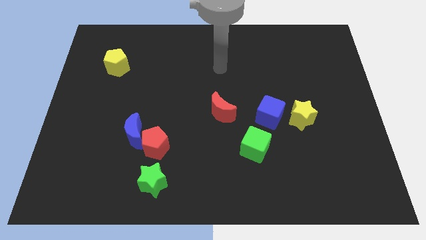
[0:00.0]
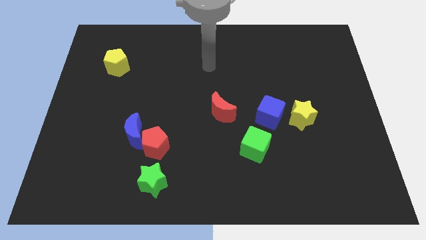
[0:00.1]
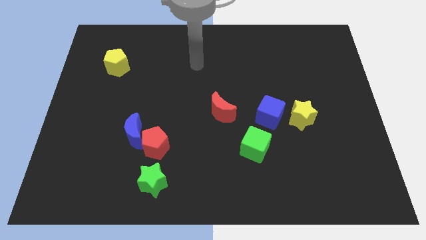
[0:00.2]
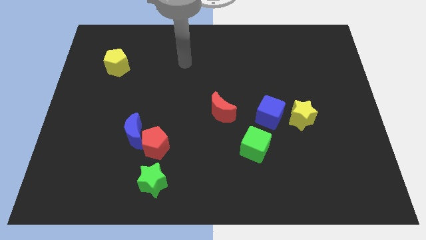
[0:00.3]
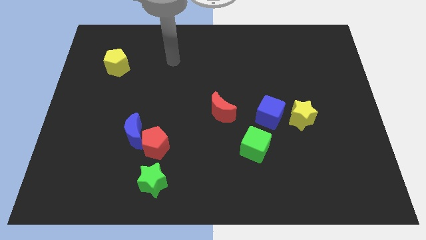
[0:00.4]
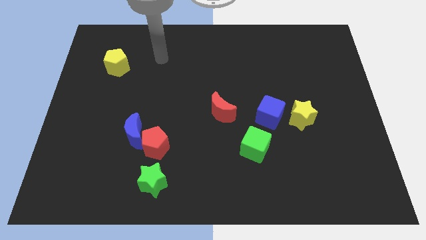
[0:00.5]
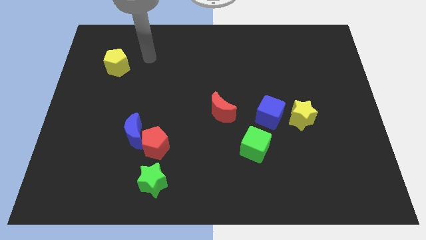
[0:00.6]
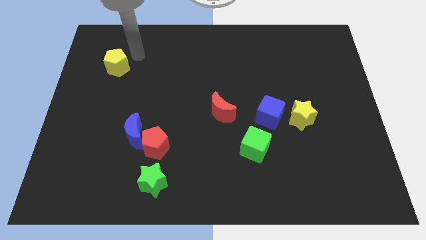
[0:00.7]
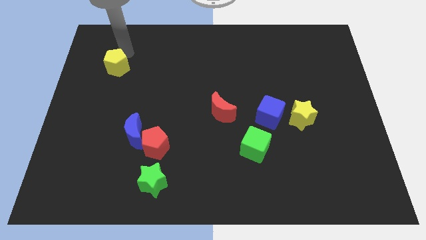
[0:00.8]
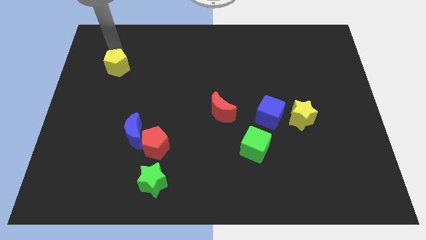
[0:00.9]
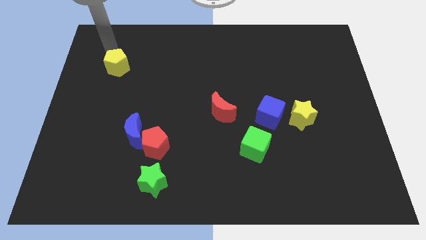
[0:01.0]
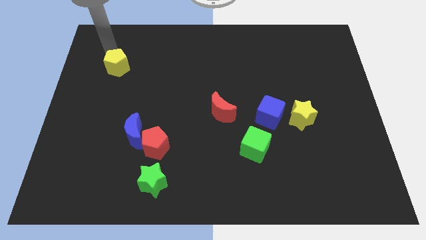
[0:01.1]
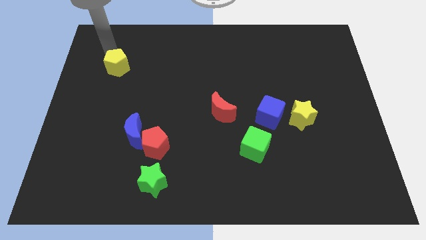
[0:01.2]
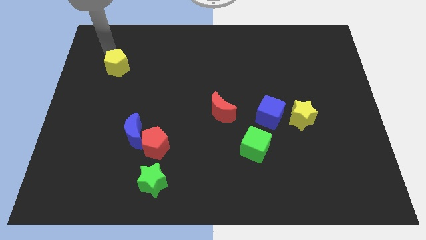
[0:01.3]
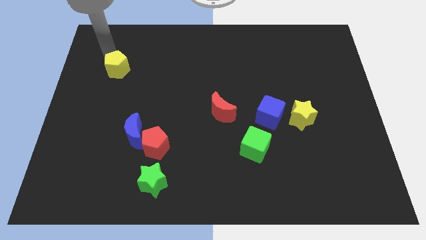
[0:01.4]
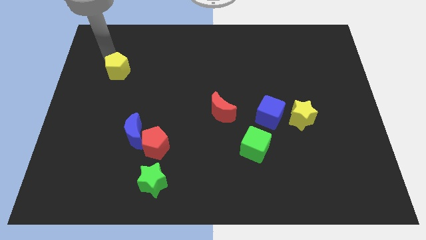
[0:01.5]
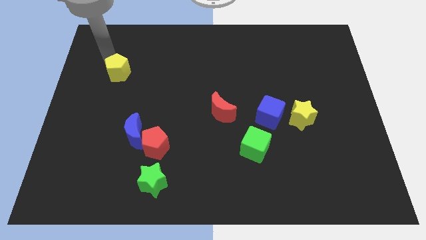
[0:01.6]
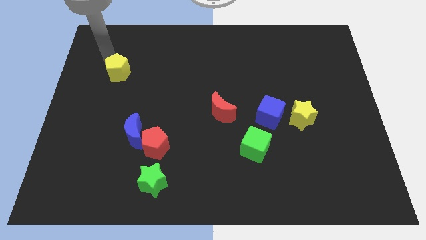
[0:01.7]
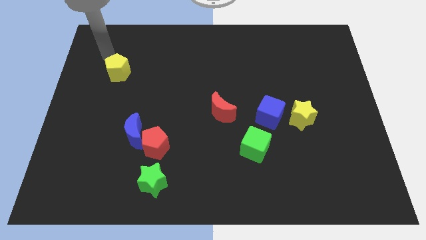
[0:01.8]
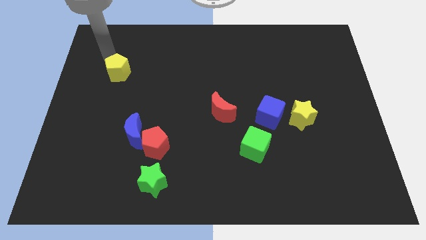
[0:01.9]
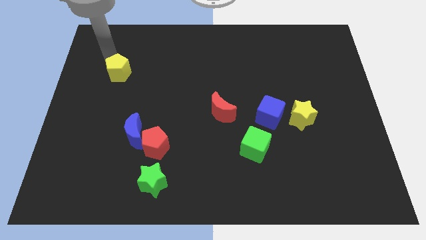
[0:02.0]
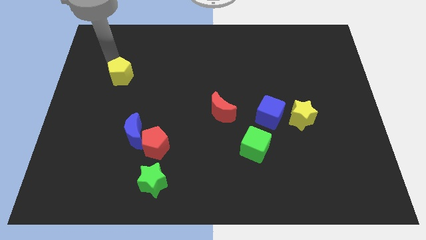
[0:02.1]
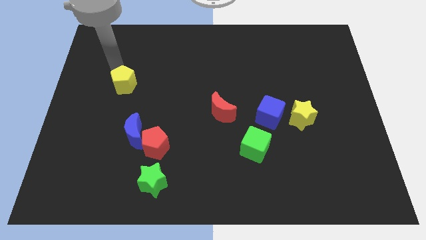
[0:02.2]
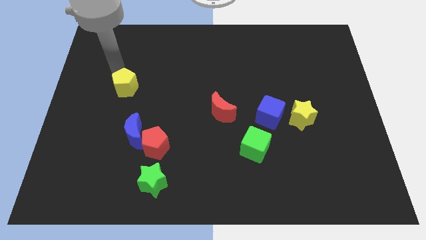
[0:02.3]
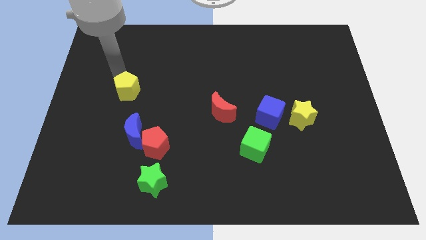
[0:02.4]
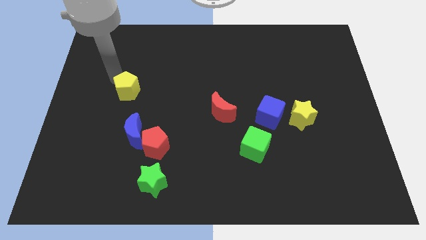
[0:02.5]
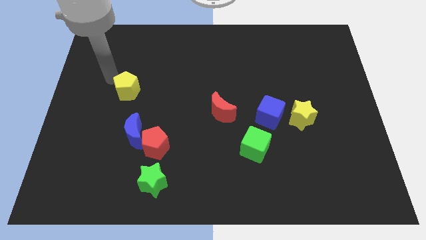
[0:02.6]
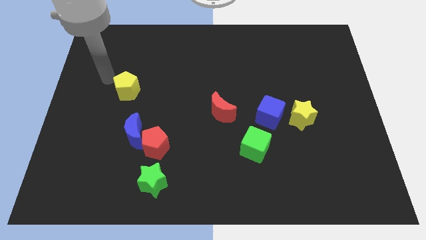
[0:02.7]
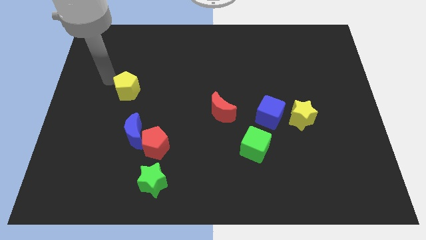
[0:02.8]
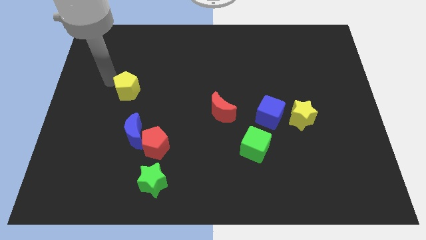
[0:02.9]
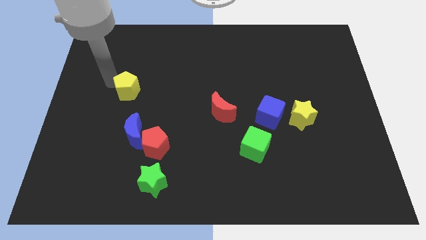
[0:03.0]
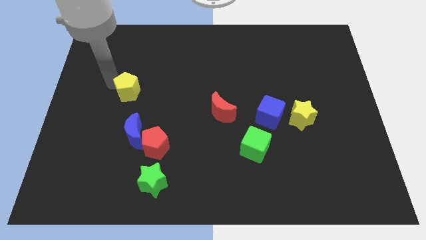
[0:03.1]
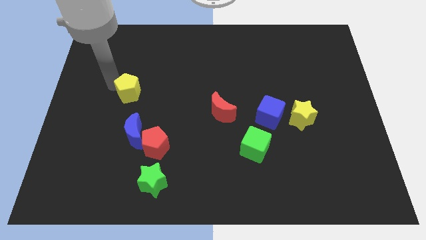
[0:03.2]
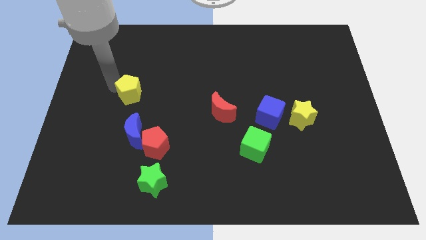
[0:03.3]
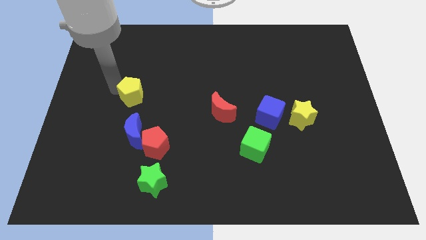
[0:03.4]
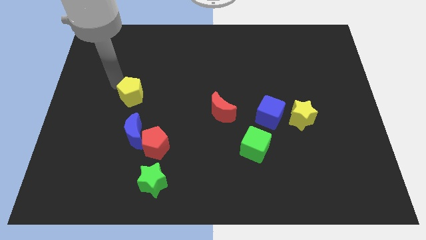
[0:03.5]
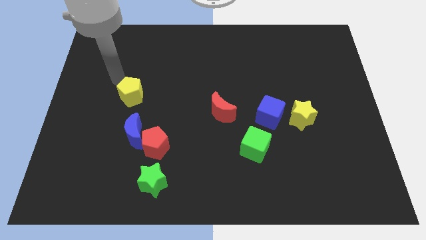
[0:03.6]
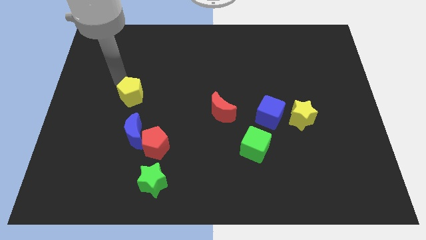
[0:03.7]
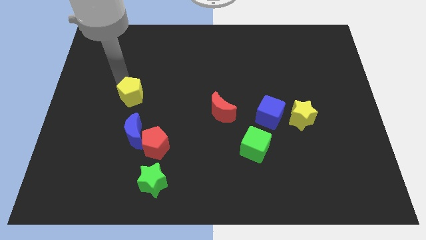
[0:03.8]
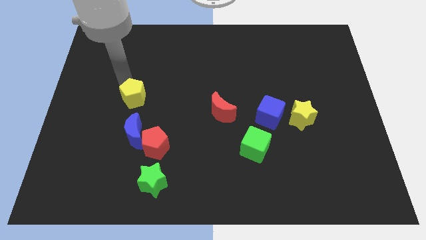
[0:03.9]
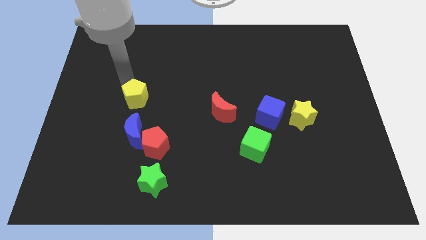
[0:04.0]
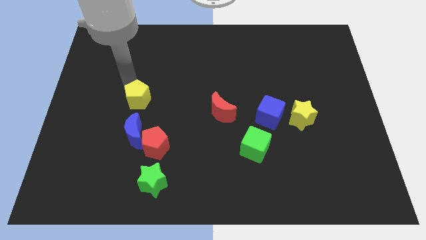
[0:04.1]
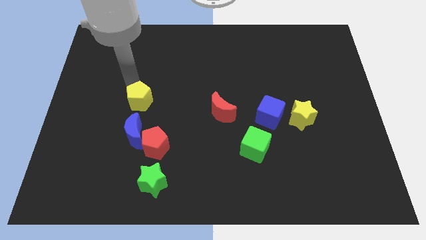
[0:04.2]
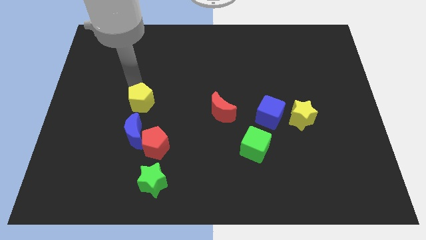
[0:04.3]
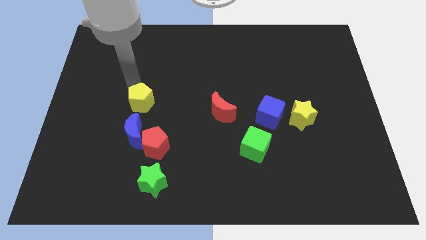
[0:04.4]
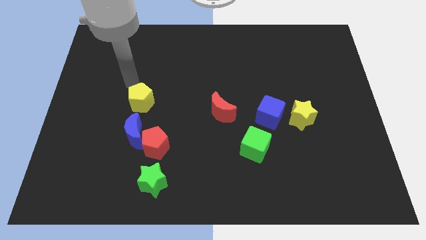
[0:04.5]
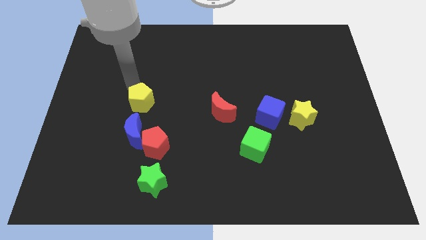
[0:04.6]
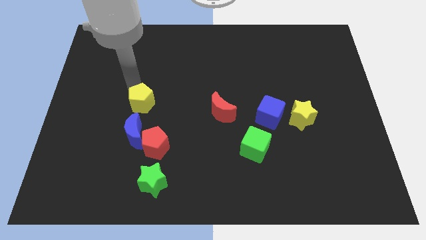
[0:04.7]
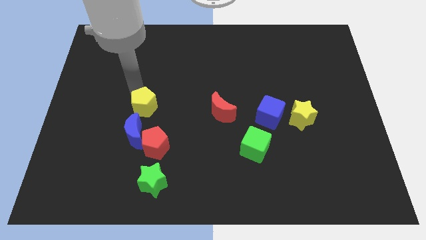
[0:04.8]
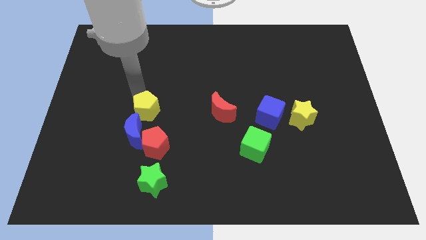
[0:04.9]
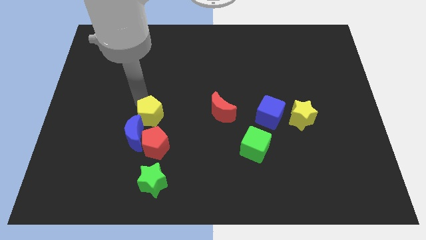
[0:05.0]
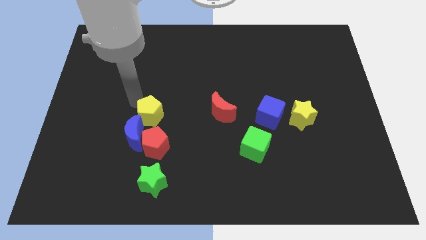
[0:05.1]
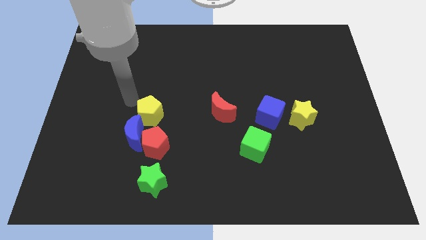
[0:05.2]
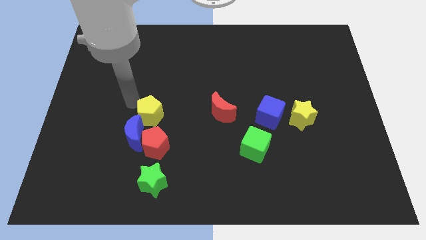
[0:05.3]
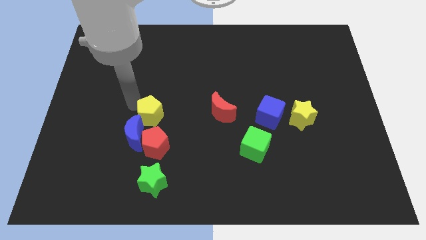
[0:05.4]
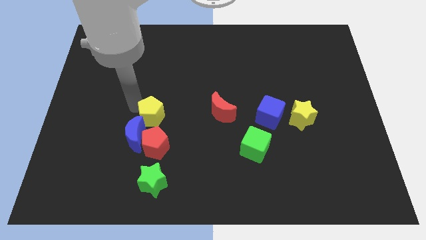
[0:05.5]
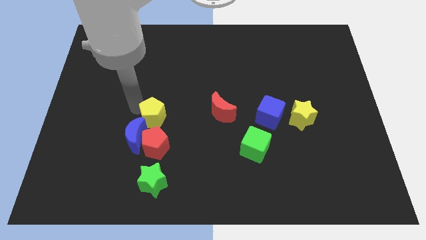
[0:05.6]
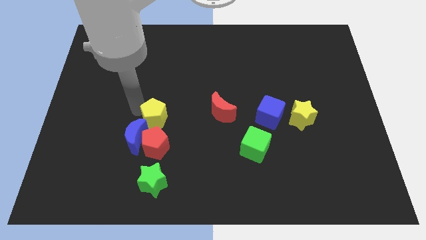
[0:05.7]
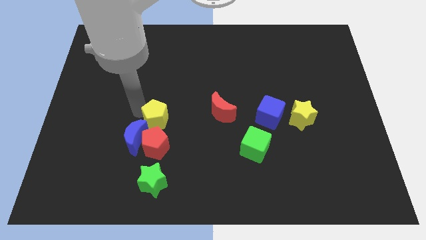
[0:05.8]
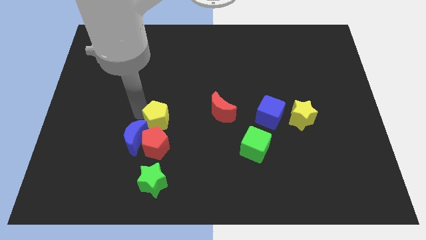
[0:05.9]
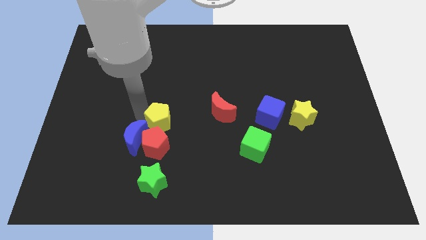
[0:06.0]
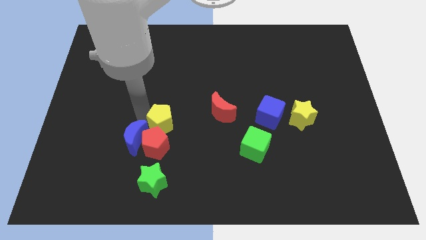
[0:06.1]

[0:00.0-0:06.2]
push the yellow pentagon towards the red pentagon

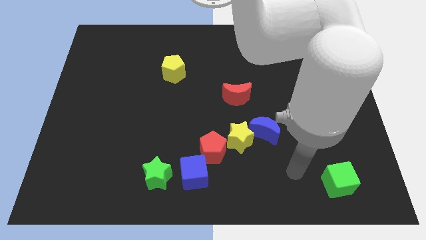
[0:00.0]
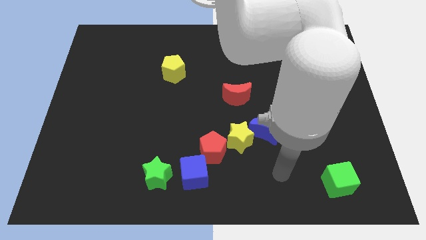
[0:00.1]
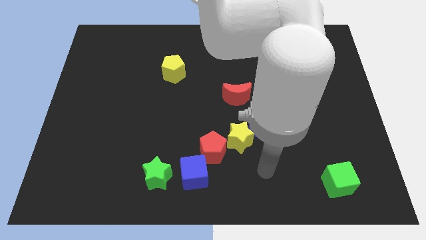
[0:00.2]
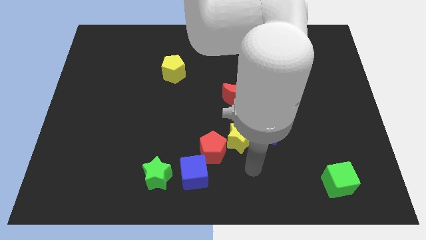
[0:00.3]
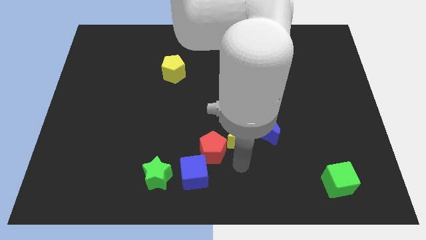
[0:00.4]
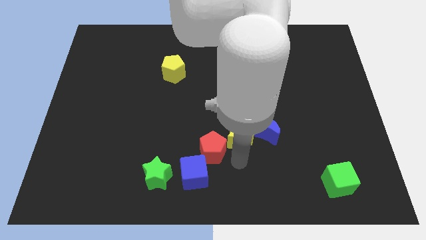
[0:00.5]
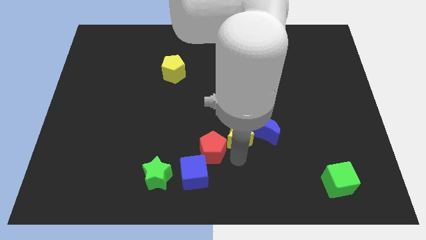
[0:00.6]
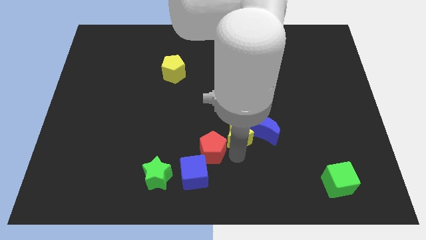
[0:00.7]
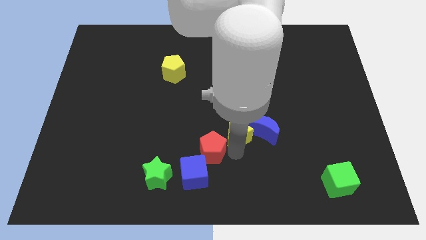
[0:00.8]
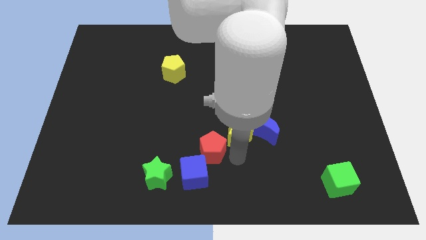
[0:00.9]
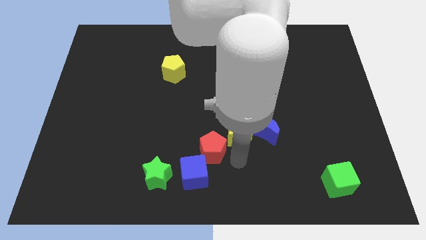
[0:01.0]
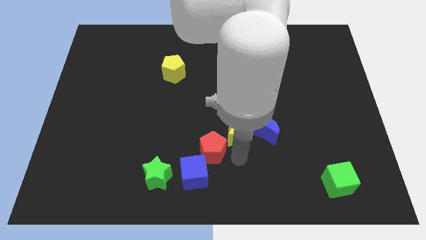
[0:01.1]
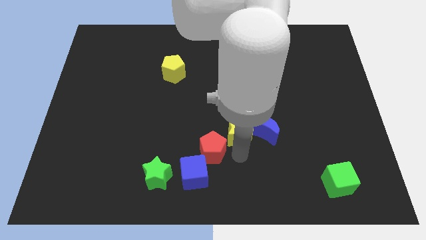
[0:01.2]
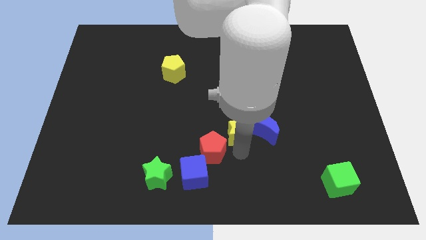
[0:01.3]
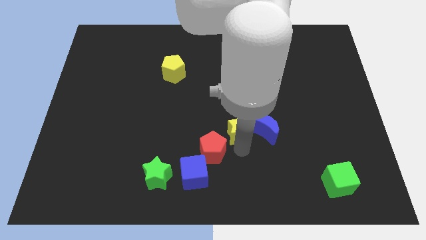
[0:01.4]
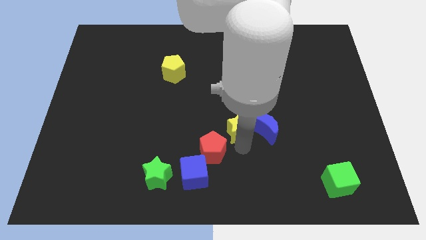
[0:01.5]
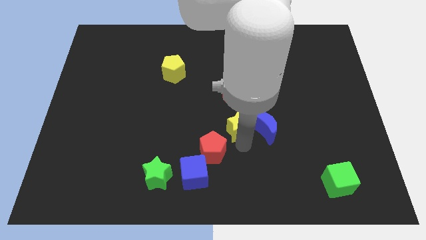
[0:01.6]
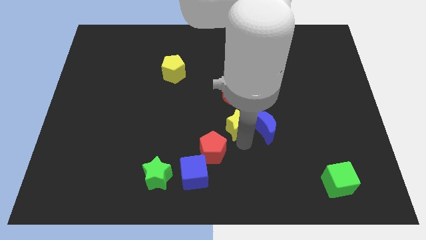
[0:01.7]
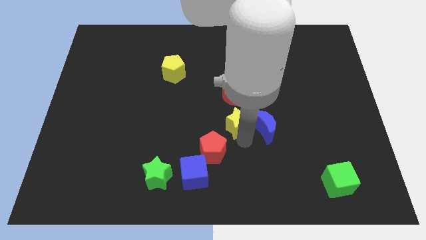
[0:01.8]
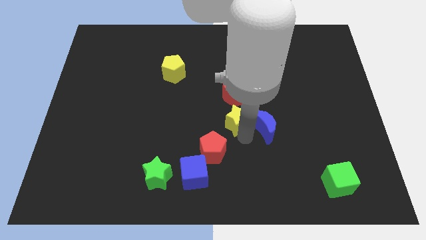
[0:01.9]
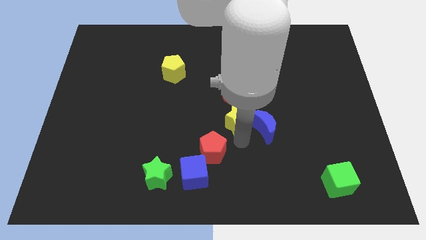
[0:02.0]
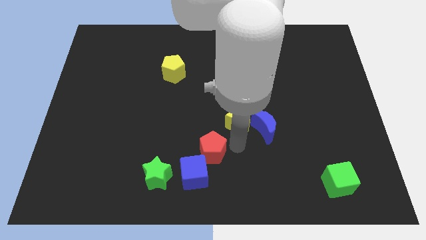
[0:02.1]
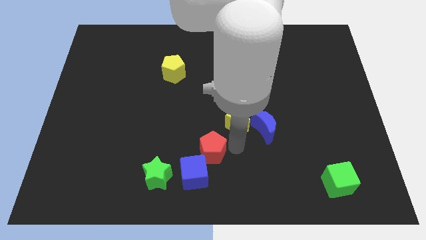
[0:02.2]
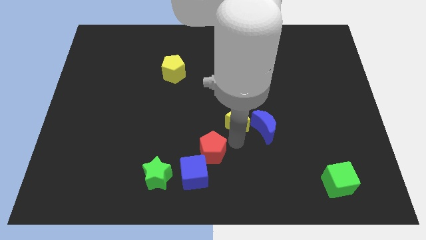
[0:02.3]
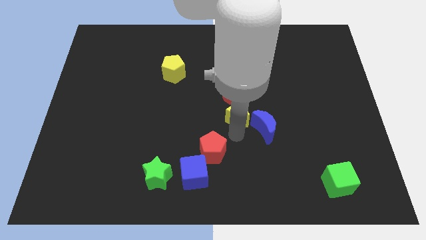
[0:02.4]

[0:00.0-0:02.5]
move the yellow star next to the red moon
